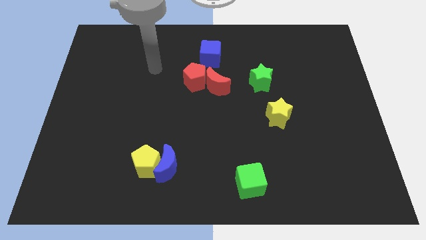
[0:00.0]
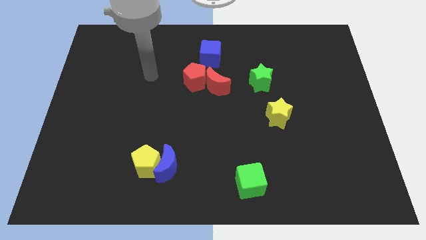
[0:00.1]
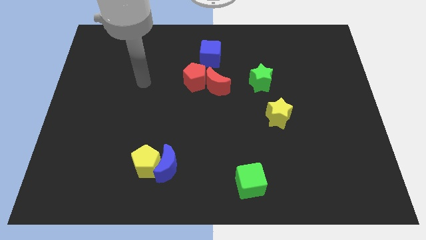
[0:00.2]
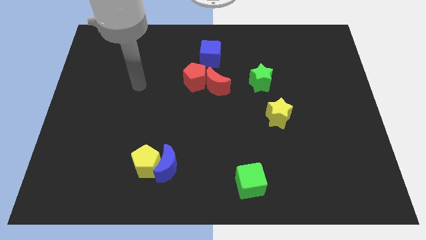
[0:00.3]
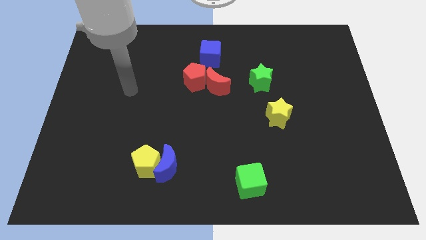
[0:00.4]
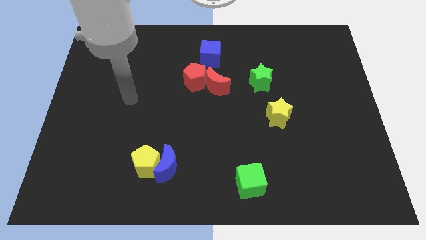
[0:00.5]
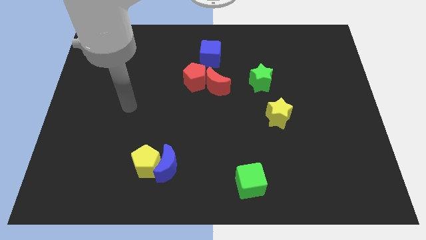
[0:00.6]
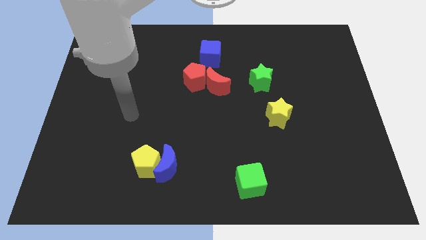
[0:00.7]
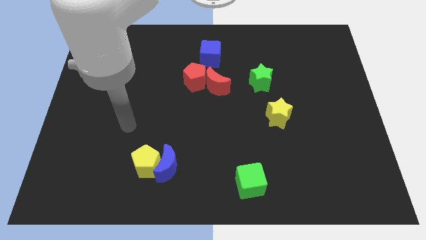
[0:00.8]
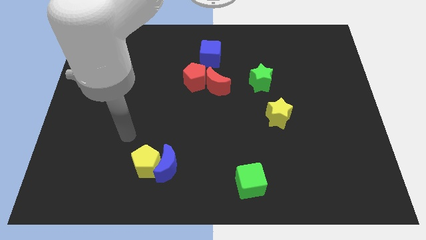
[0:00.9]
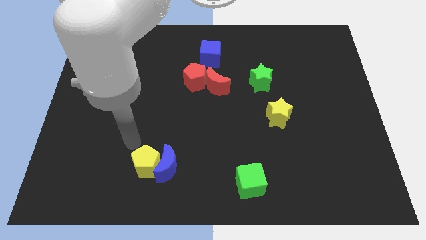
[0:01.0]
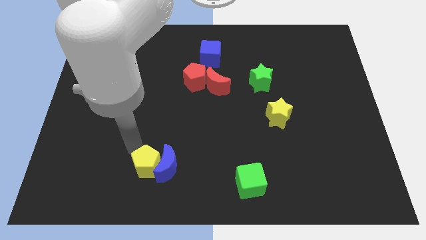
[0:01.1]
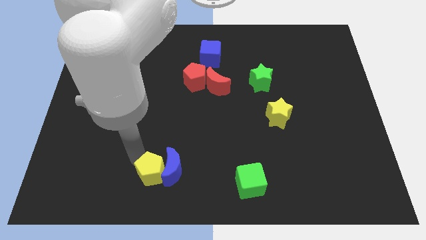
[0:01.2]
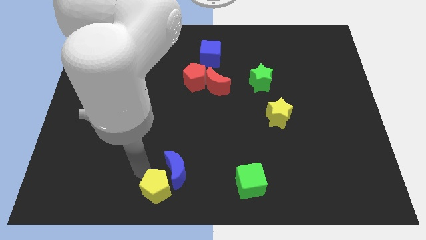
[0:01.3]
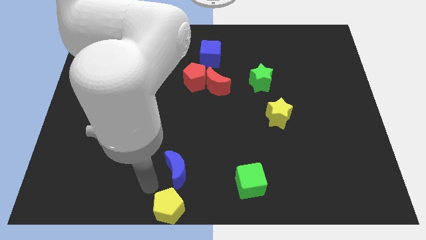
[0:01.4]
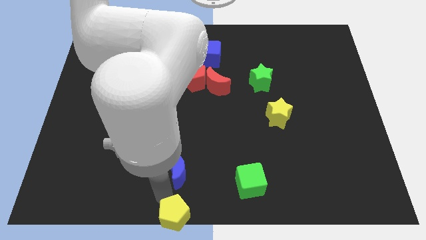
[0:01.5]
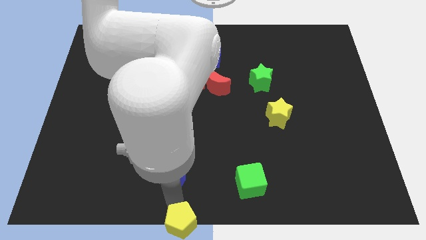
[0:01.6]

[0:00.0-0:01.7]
separate the blue moon from the yellow pentagon

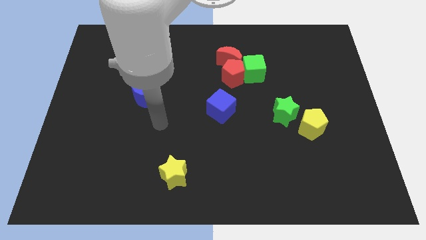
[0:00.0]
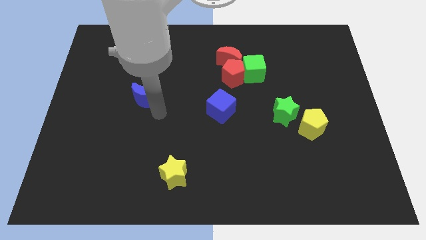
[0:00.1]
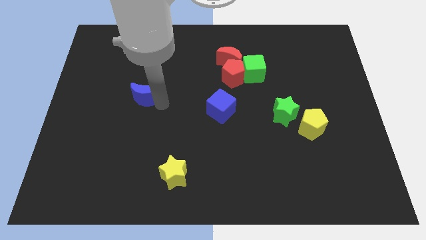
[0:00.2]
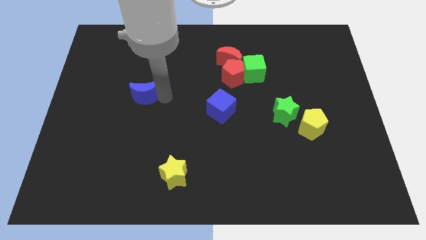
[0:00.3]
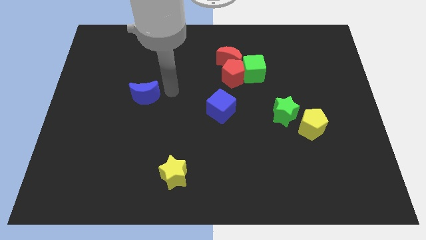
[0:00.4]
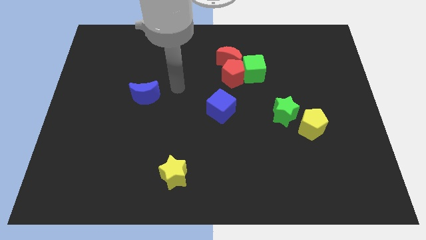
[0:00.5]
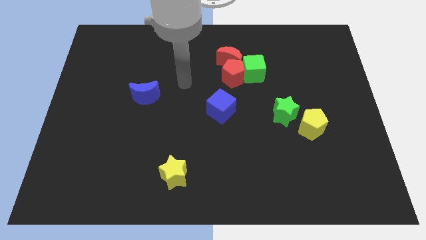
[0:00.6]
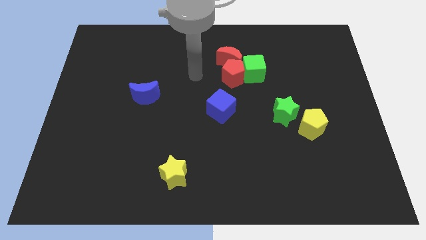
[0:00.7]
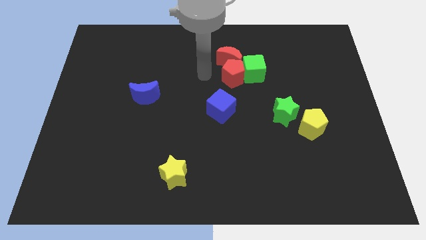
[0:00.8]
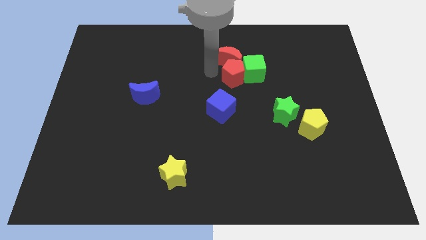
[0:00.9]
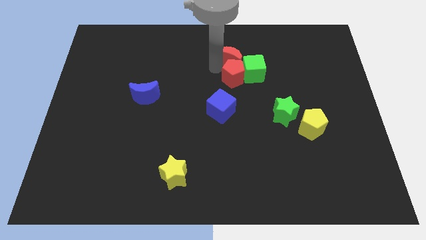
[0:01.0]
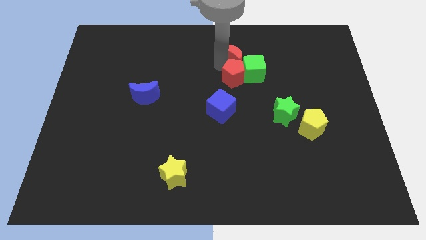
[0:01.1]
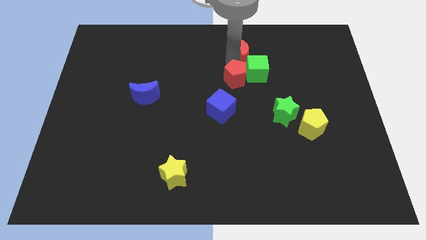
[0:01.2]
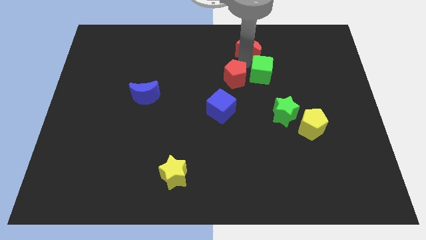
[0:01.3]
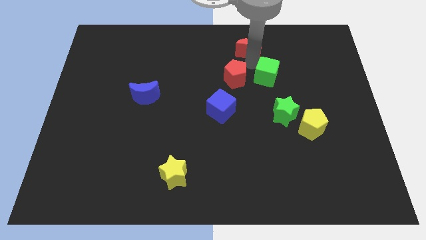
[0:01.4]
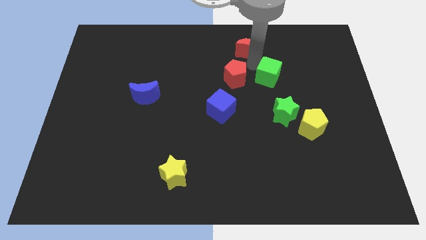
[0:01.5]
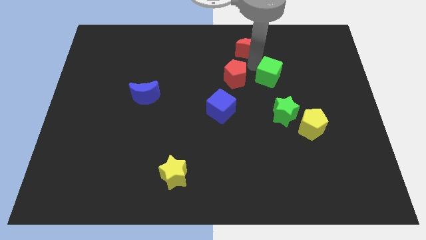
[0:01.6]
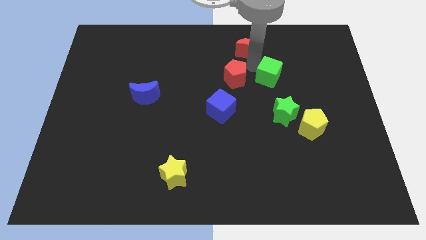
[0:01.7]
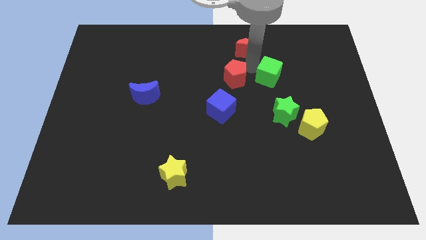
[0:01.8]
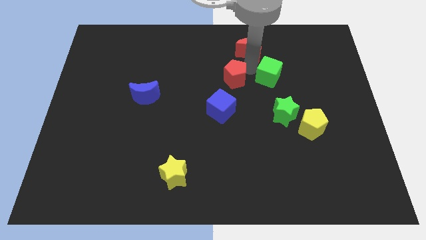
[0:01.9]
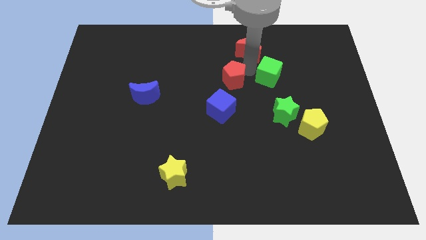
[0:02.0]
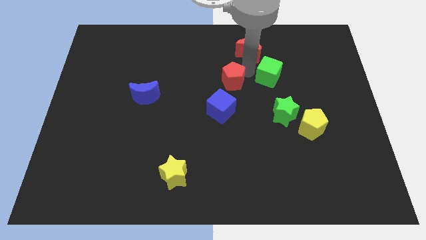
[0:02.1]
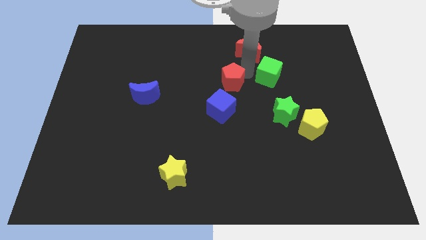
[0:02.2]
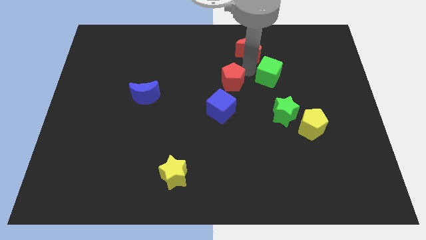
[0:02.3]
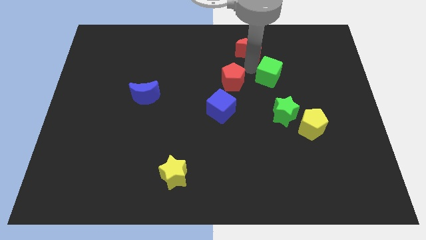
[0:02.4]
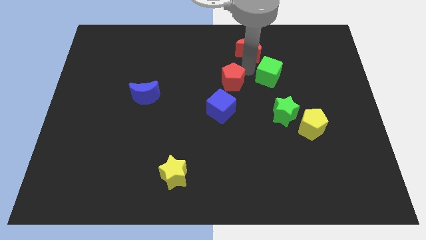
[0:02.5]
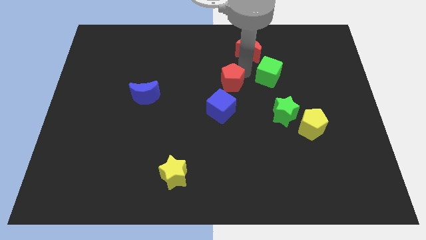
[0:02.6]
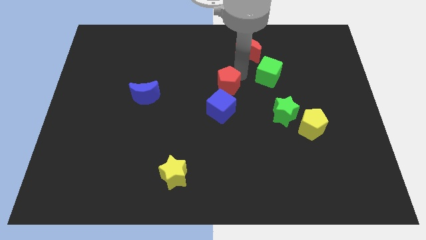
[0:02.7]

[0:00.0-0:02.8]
separate the red pentagon from the red moon and green cube

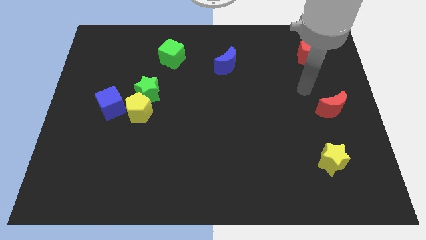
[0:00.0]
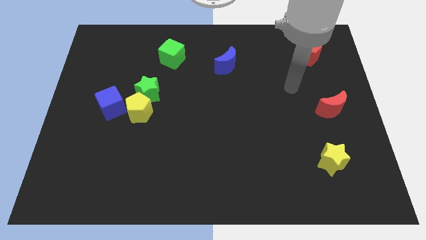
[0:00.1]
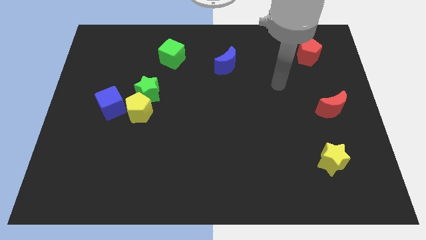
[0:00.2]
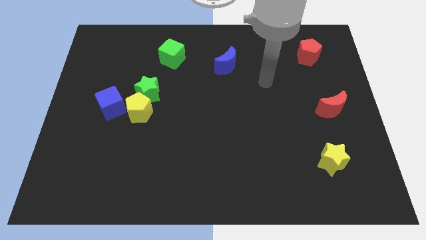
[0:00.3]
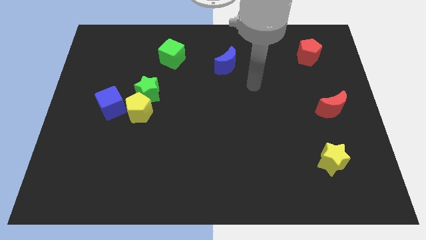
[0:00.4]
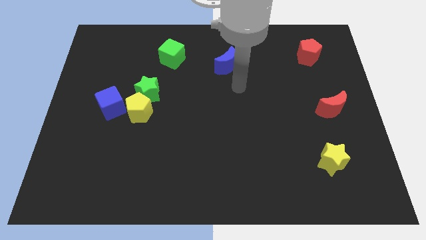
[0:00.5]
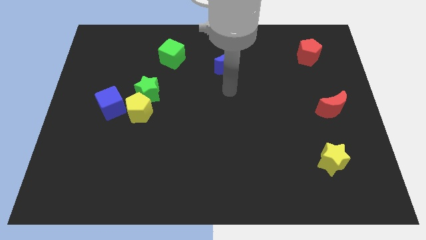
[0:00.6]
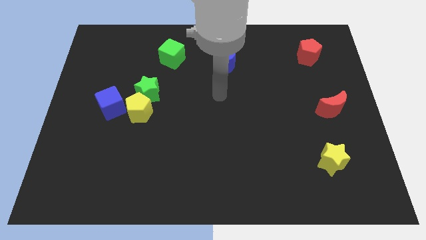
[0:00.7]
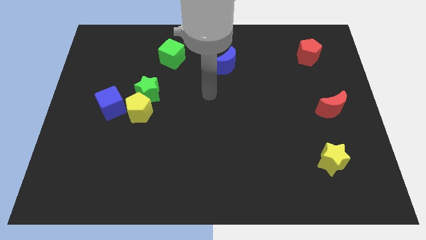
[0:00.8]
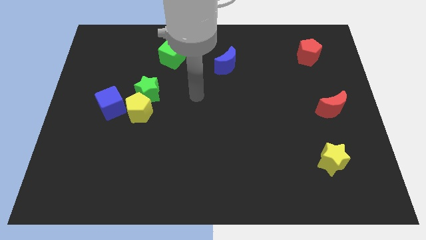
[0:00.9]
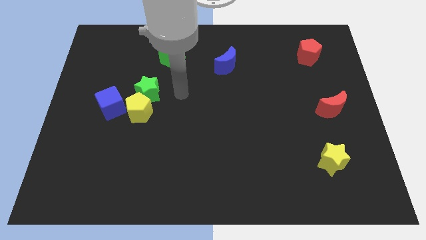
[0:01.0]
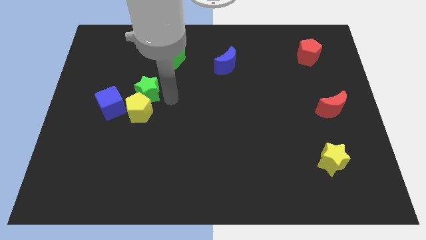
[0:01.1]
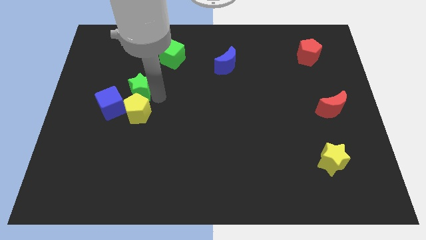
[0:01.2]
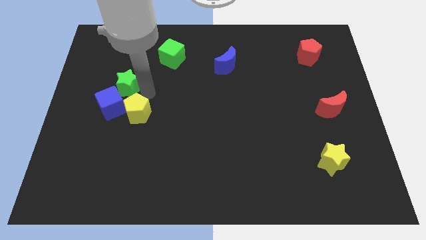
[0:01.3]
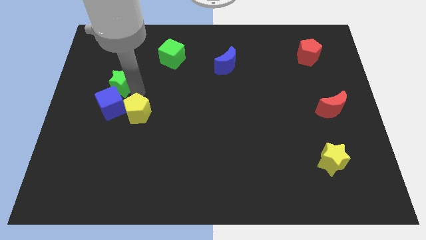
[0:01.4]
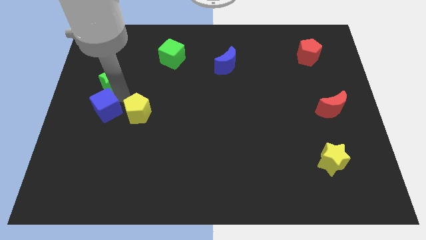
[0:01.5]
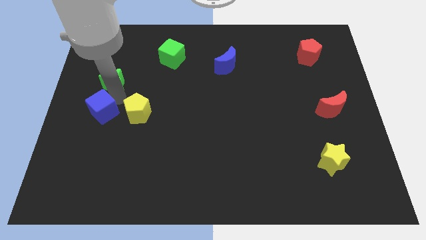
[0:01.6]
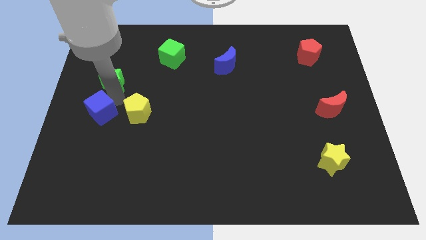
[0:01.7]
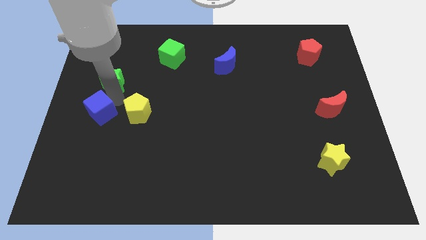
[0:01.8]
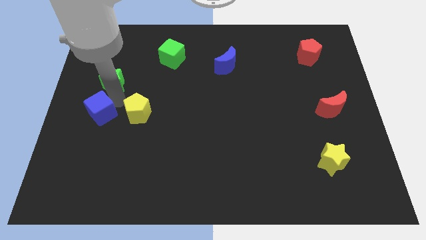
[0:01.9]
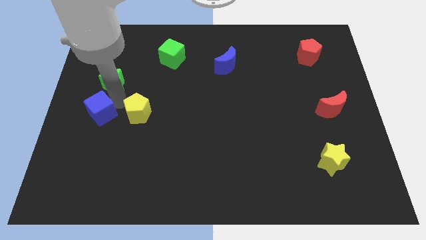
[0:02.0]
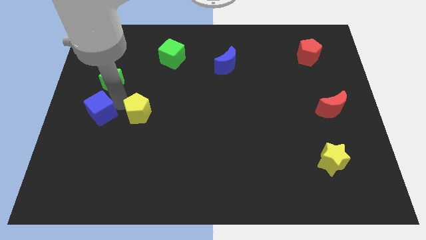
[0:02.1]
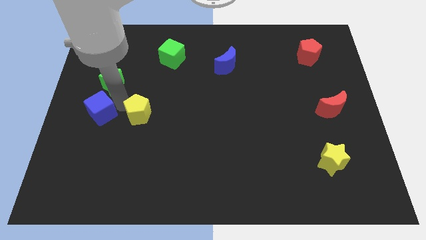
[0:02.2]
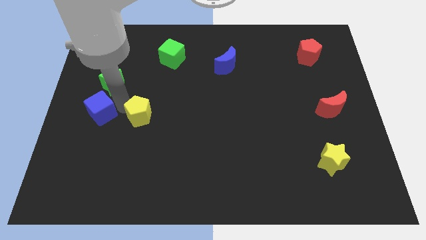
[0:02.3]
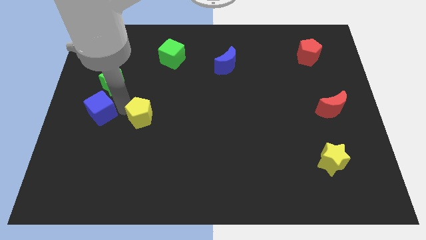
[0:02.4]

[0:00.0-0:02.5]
move the yellow pentagon away from the green star and blue cube

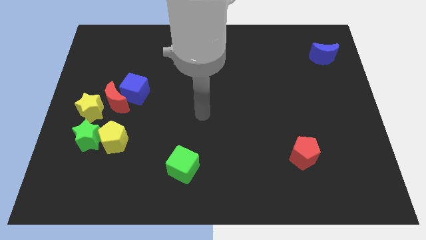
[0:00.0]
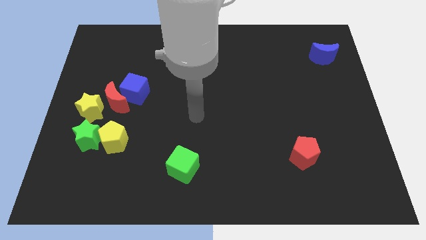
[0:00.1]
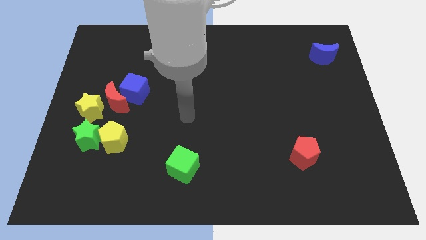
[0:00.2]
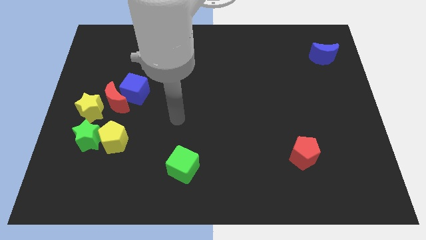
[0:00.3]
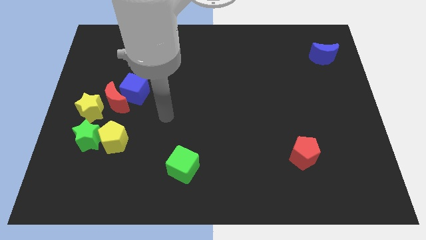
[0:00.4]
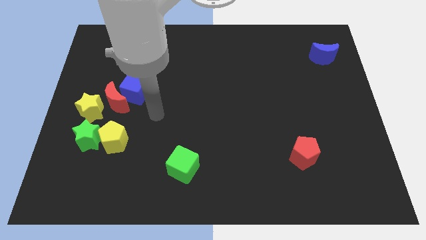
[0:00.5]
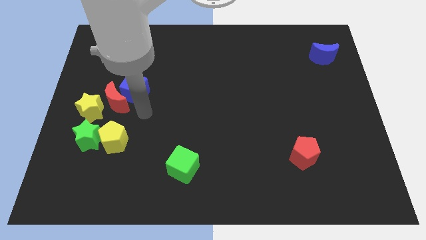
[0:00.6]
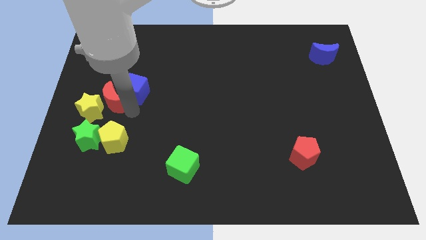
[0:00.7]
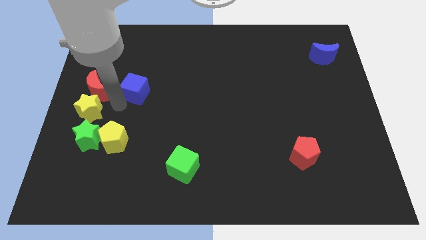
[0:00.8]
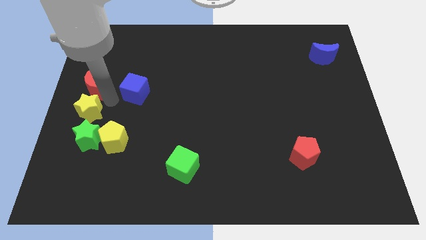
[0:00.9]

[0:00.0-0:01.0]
separate the blue cube from the red moon

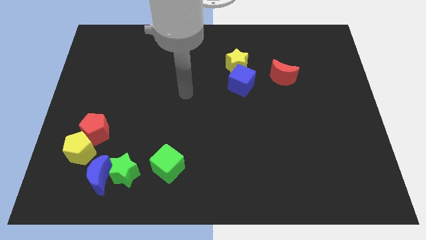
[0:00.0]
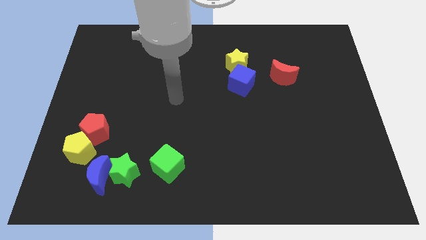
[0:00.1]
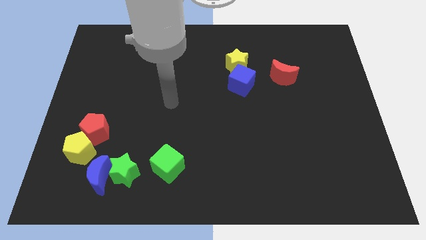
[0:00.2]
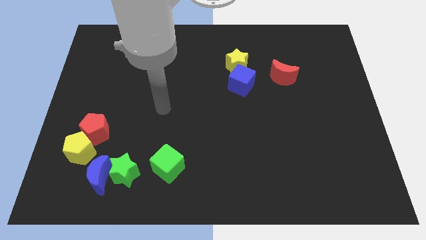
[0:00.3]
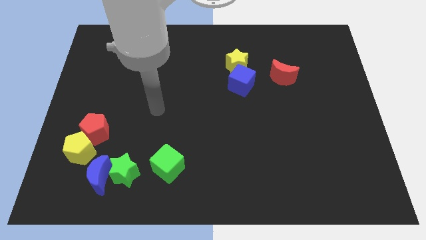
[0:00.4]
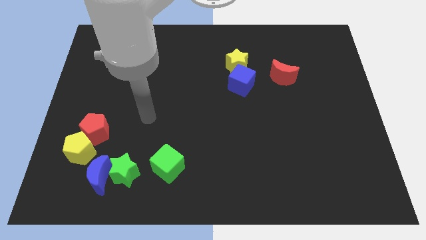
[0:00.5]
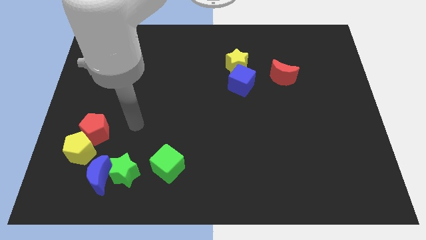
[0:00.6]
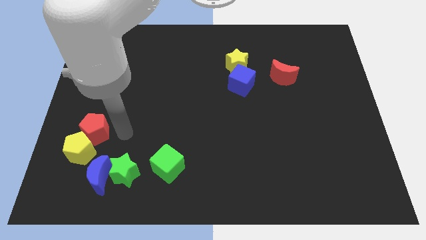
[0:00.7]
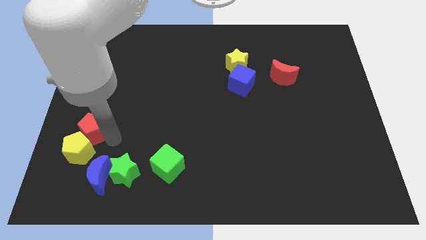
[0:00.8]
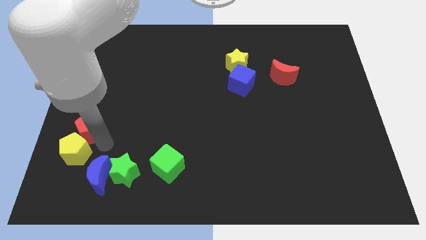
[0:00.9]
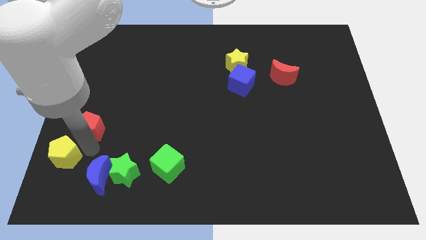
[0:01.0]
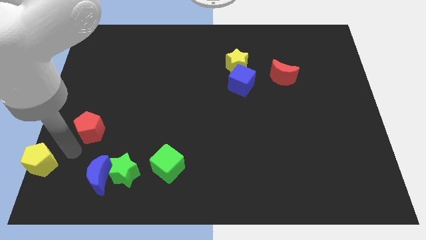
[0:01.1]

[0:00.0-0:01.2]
separate the red pentagon from the yellow pentagon

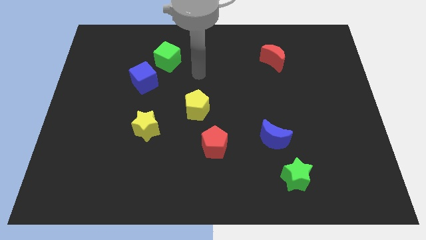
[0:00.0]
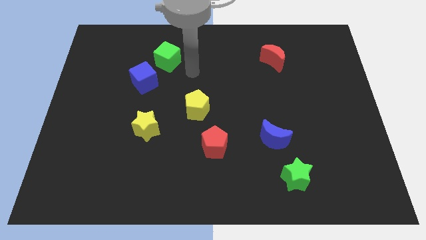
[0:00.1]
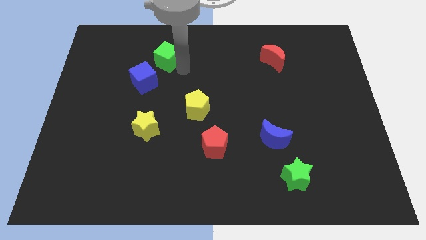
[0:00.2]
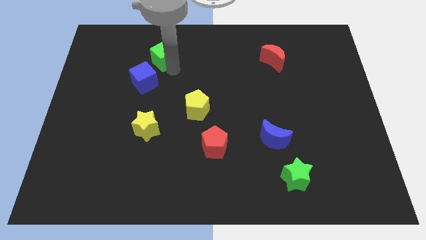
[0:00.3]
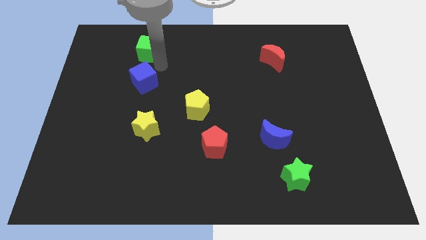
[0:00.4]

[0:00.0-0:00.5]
separate the blue cube from the green cube
